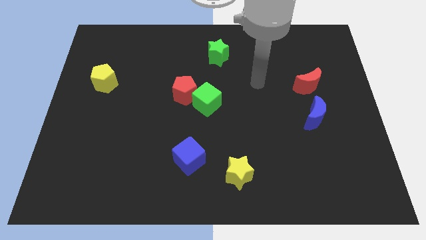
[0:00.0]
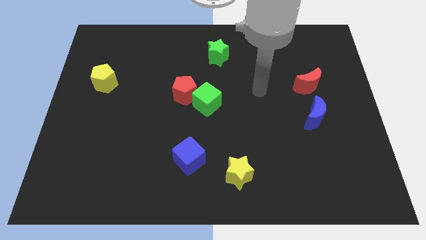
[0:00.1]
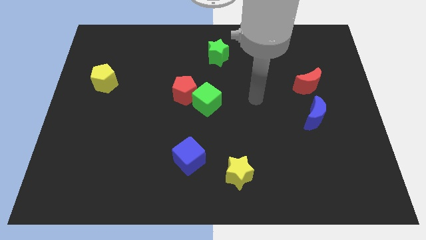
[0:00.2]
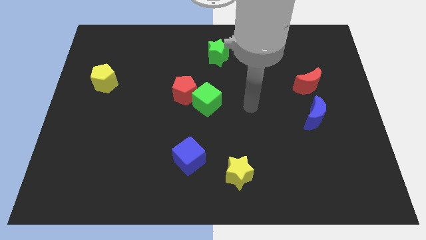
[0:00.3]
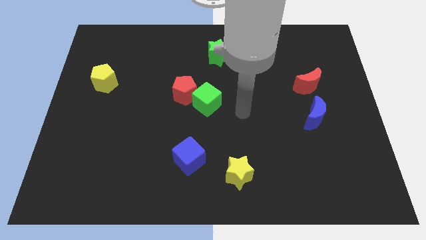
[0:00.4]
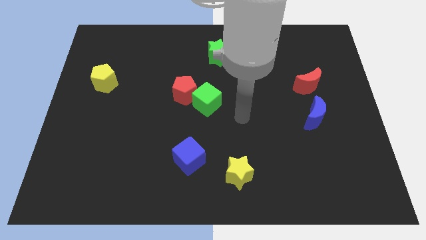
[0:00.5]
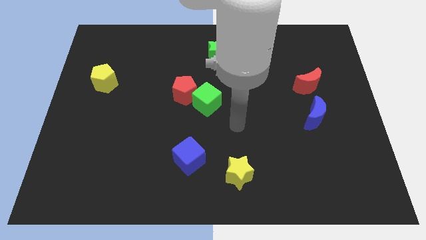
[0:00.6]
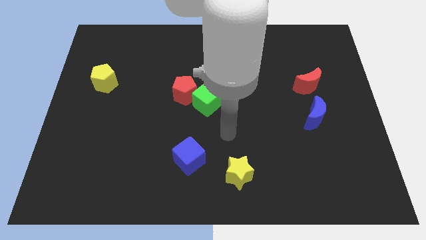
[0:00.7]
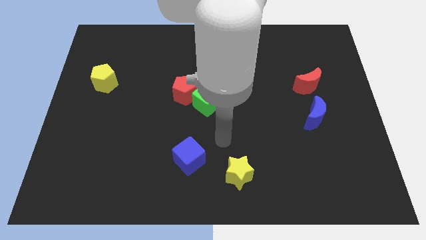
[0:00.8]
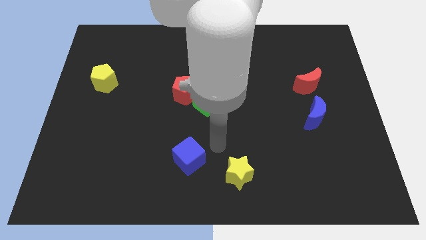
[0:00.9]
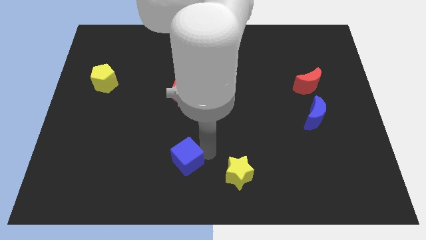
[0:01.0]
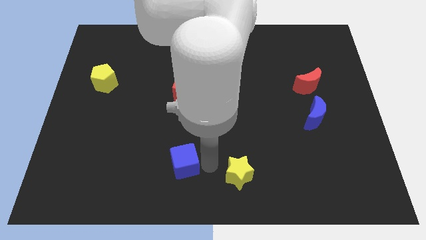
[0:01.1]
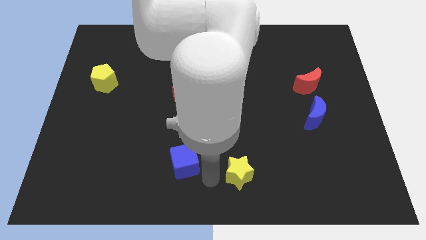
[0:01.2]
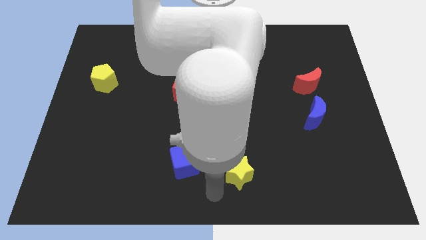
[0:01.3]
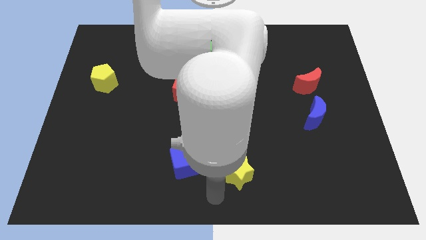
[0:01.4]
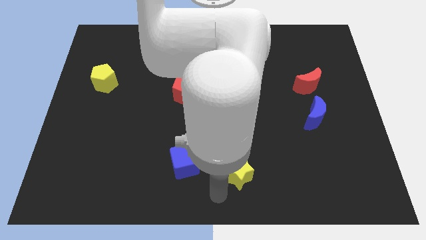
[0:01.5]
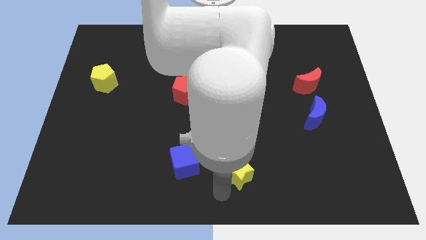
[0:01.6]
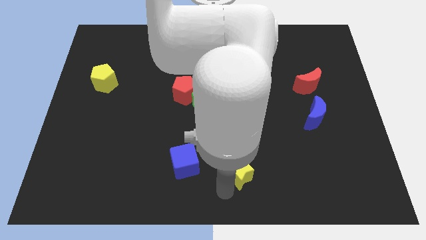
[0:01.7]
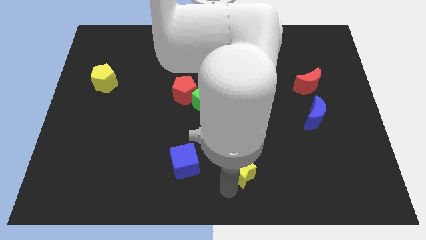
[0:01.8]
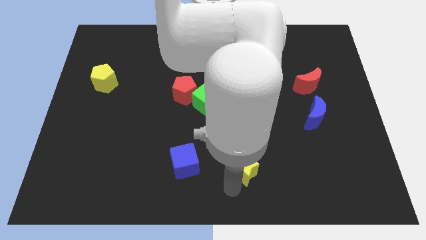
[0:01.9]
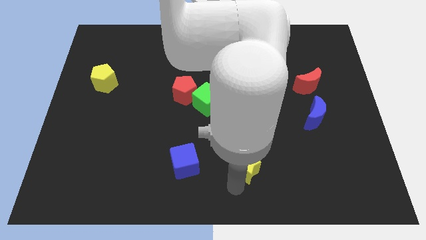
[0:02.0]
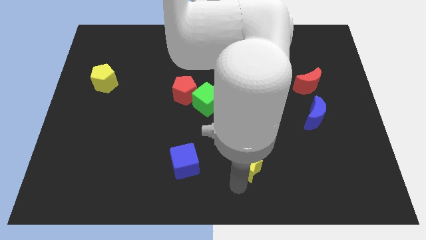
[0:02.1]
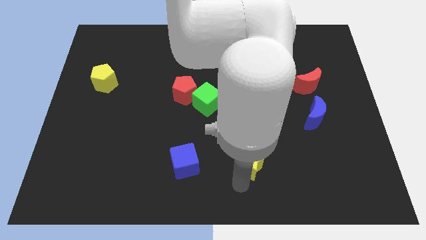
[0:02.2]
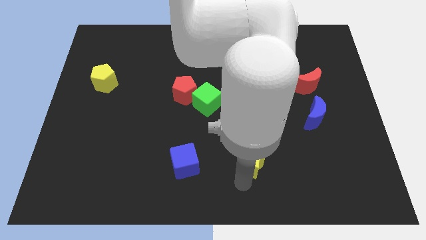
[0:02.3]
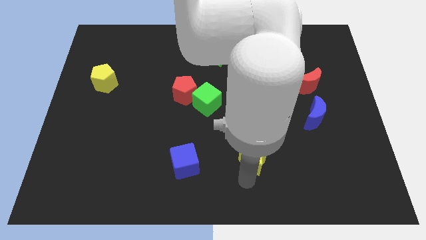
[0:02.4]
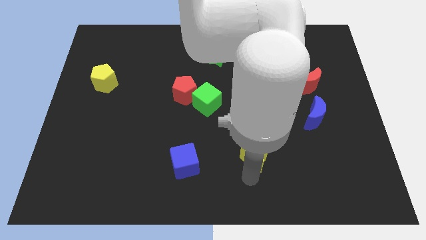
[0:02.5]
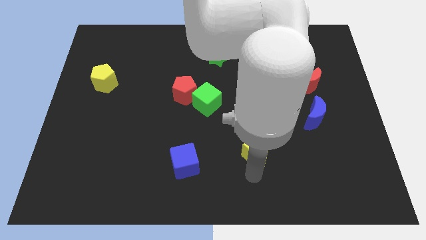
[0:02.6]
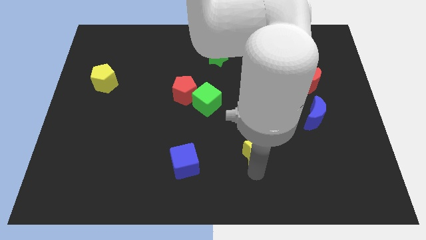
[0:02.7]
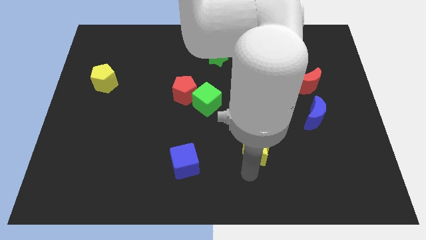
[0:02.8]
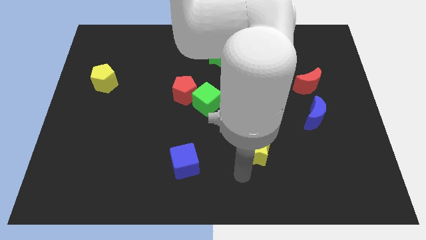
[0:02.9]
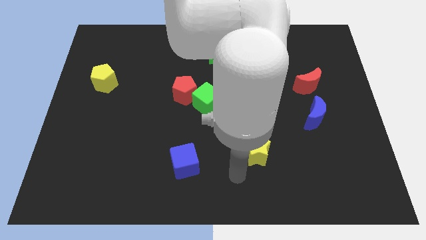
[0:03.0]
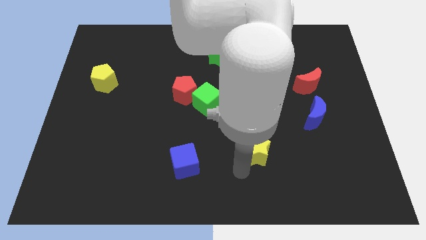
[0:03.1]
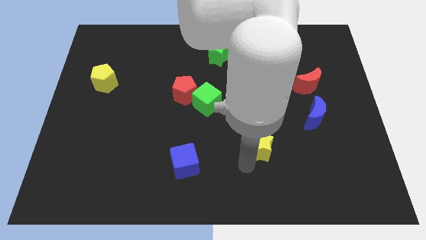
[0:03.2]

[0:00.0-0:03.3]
push the yellow star slightly upwards and then right

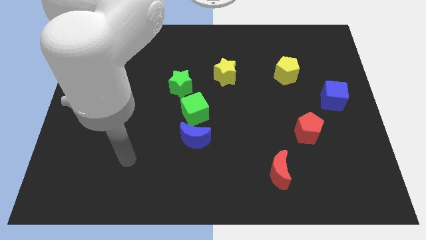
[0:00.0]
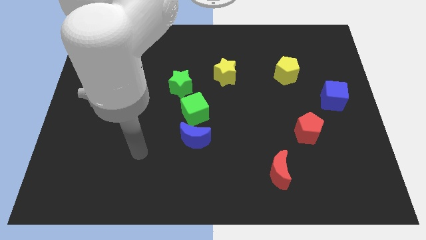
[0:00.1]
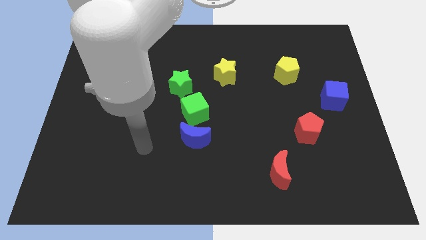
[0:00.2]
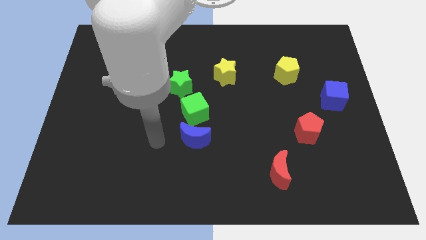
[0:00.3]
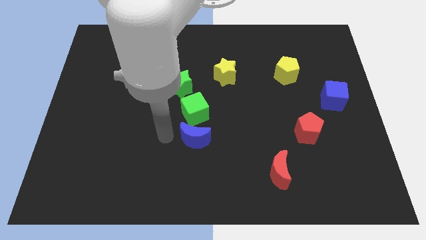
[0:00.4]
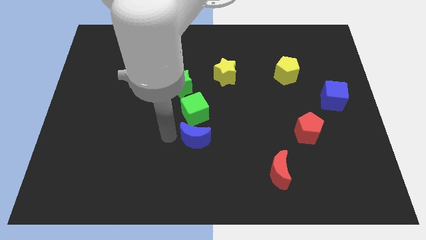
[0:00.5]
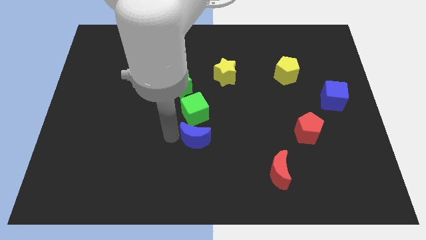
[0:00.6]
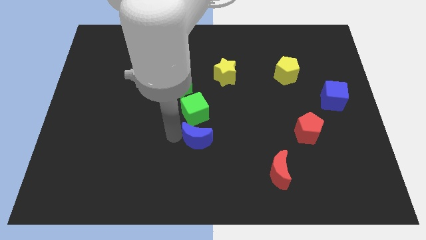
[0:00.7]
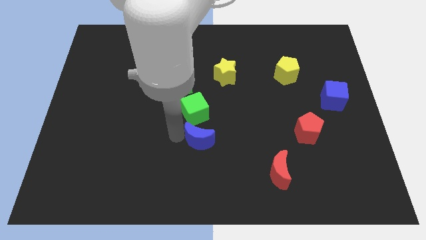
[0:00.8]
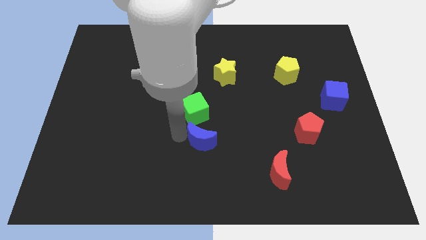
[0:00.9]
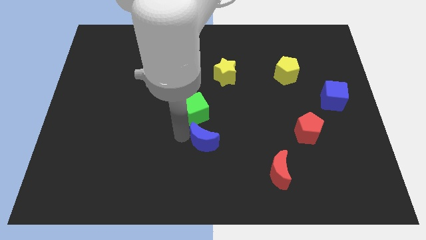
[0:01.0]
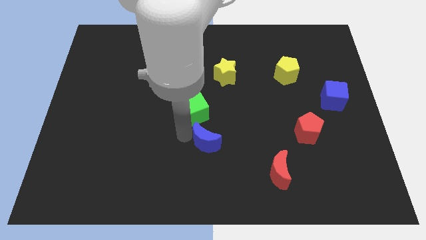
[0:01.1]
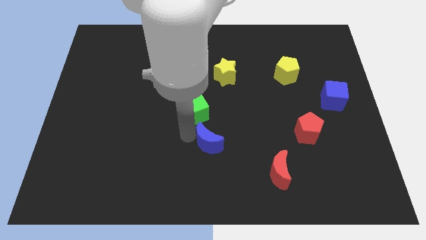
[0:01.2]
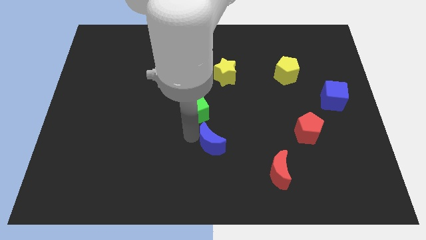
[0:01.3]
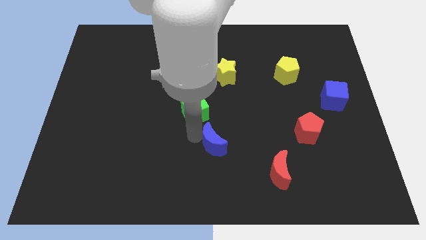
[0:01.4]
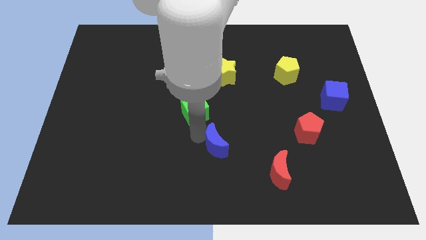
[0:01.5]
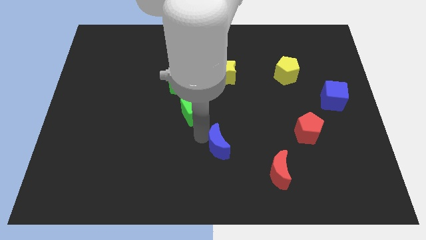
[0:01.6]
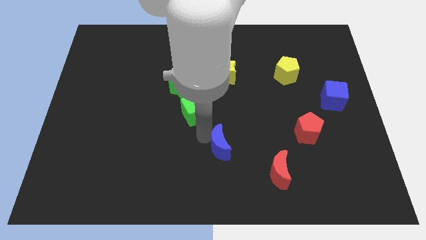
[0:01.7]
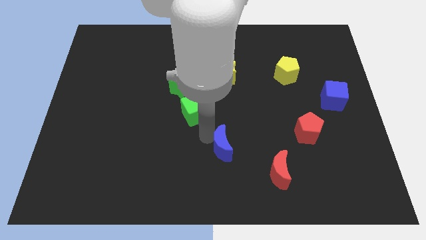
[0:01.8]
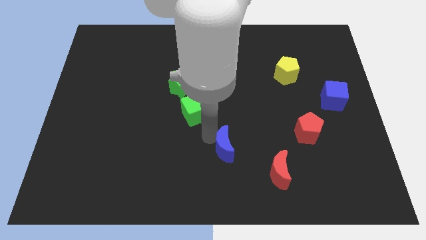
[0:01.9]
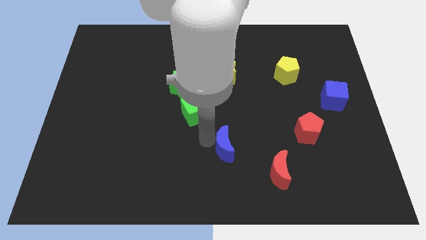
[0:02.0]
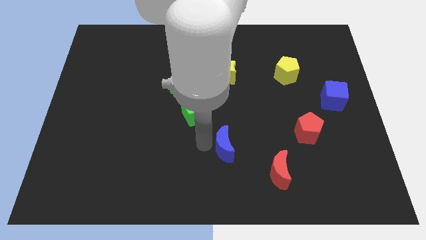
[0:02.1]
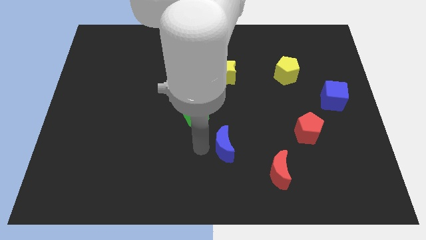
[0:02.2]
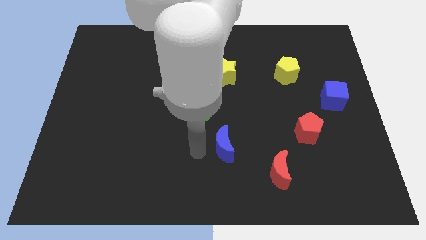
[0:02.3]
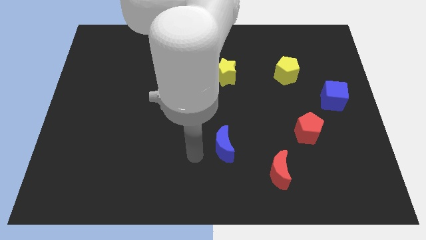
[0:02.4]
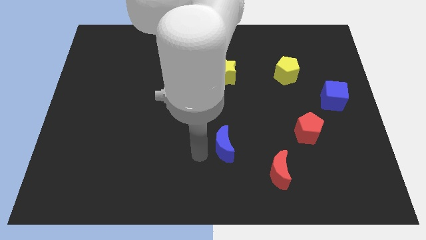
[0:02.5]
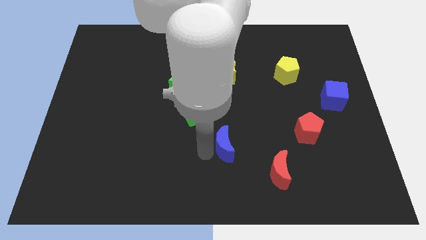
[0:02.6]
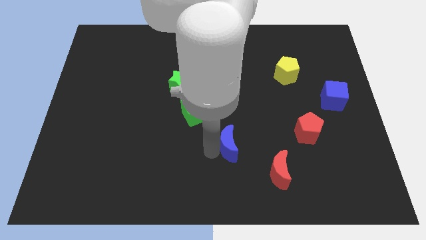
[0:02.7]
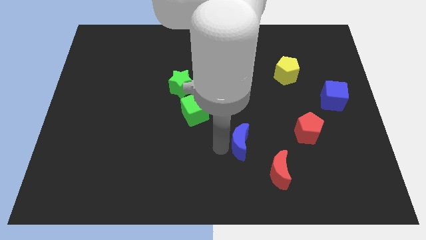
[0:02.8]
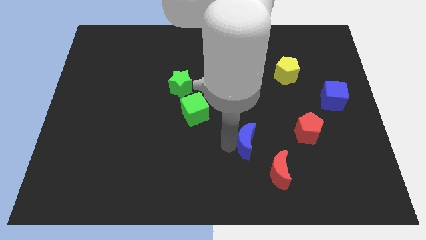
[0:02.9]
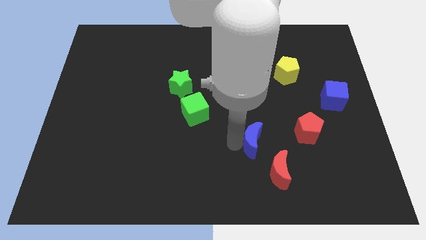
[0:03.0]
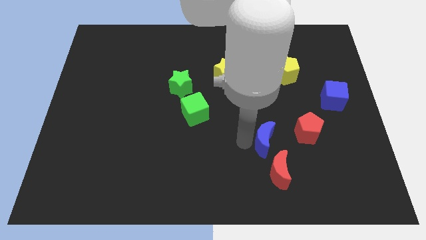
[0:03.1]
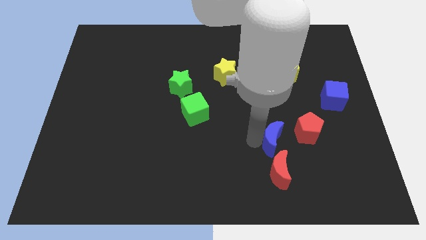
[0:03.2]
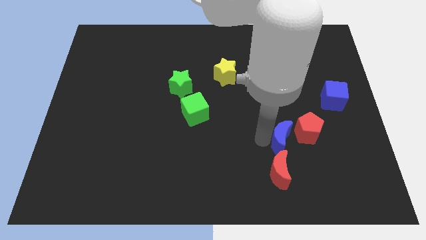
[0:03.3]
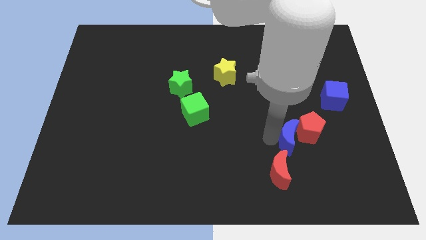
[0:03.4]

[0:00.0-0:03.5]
push the blue moon right

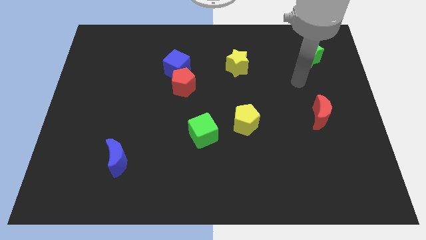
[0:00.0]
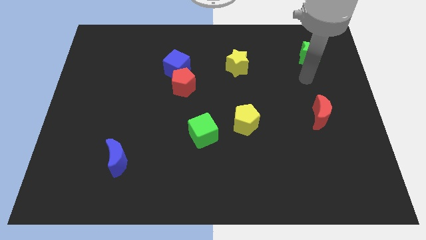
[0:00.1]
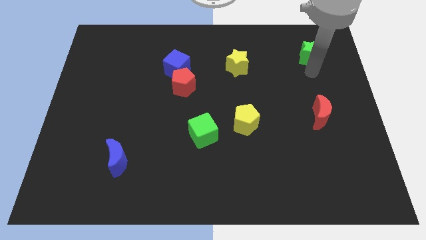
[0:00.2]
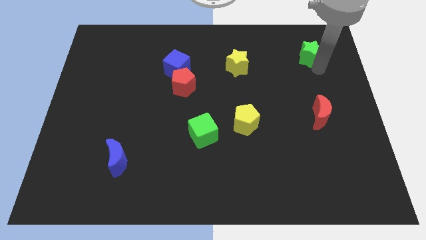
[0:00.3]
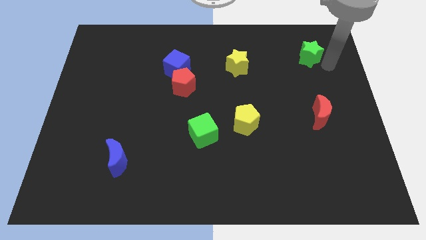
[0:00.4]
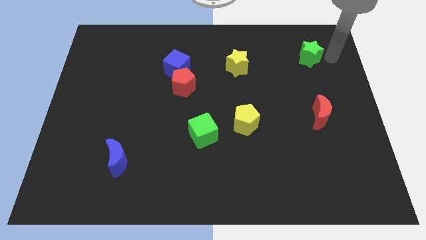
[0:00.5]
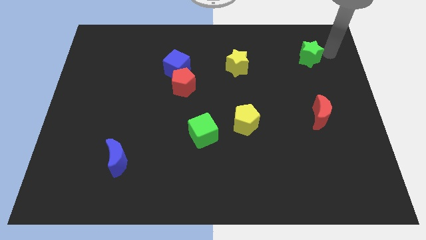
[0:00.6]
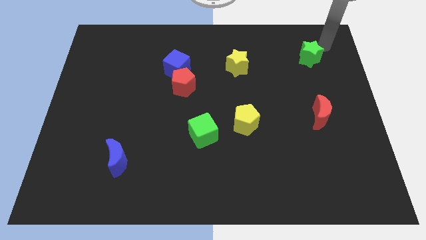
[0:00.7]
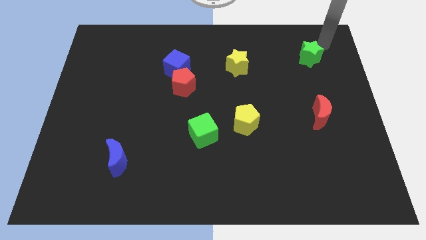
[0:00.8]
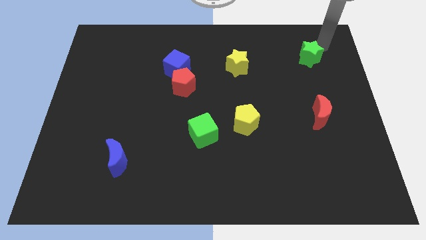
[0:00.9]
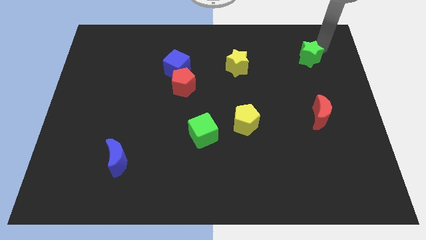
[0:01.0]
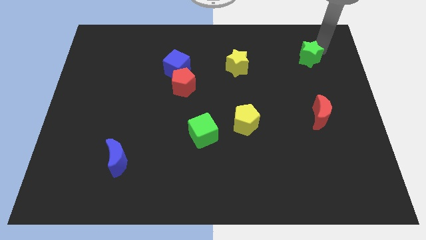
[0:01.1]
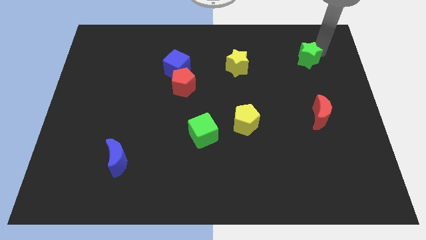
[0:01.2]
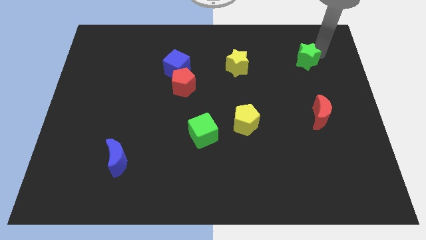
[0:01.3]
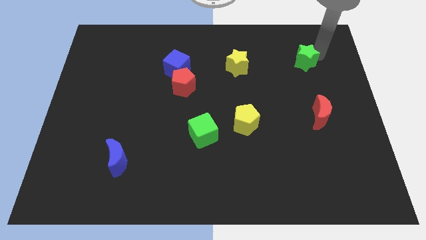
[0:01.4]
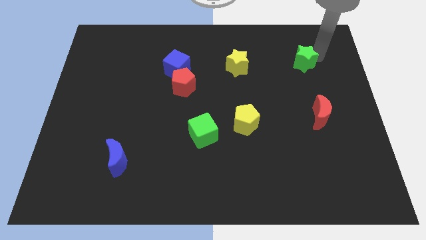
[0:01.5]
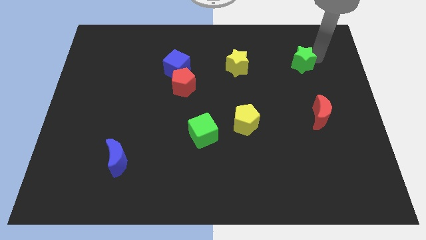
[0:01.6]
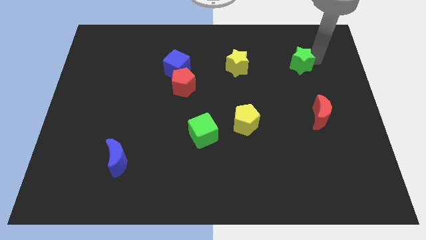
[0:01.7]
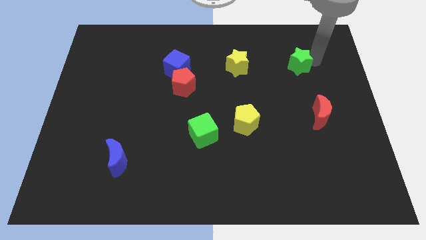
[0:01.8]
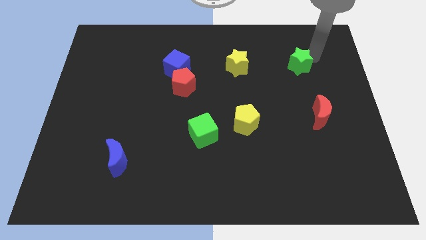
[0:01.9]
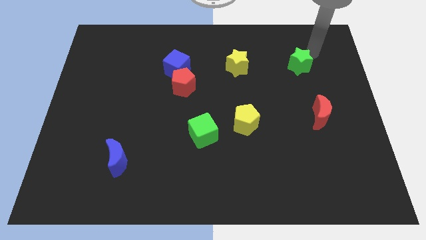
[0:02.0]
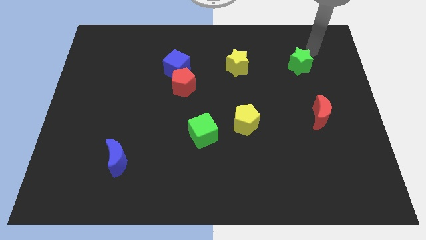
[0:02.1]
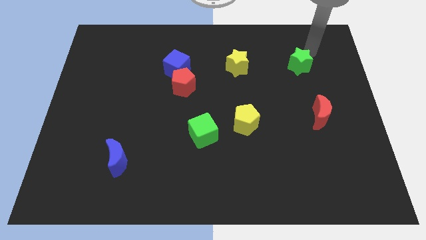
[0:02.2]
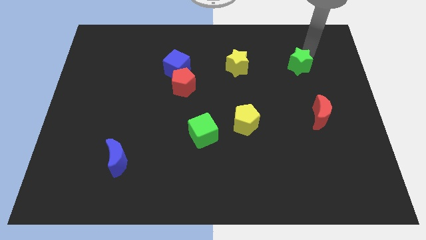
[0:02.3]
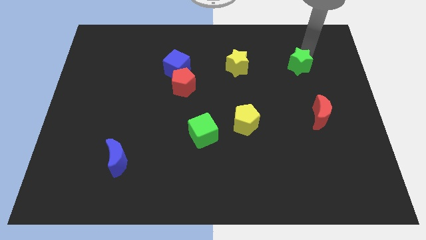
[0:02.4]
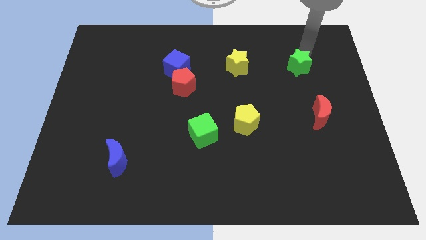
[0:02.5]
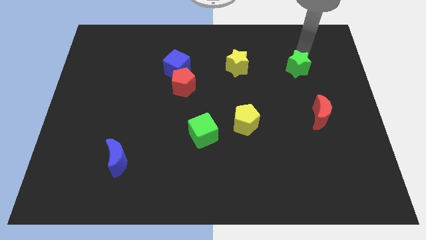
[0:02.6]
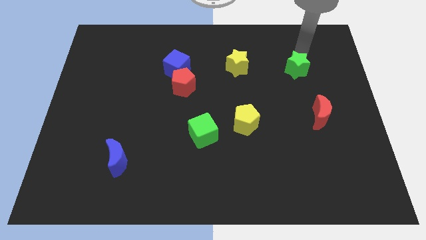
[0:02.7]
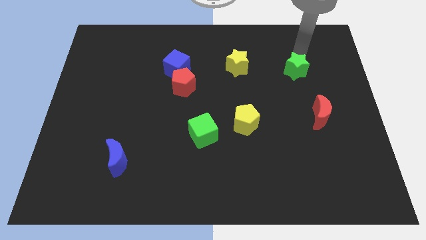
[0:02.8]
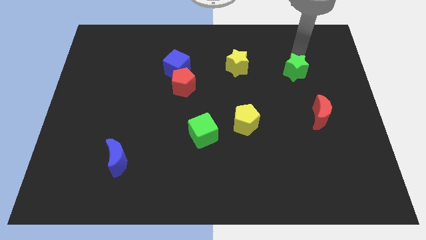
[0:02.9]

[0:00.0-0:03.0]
slide the green star a bit diagonally down and left
